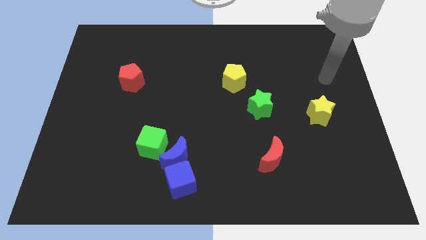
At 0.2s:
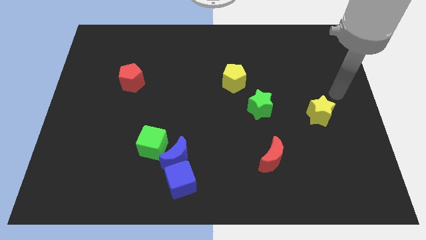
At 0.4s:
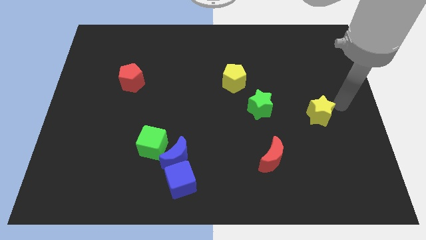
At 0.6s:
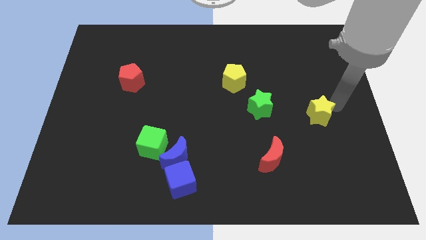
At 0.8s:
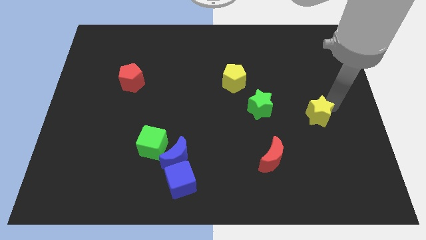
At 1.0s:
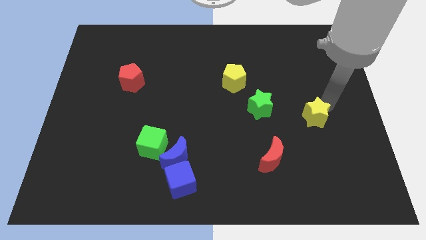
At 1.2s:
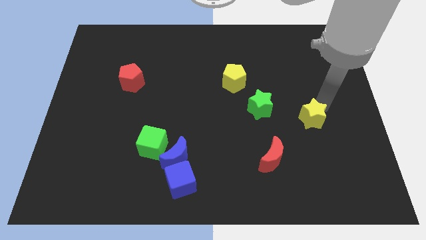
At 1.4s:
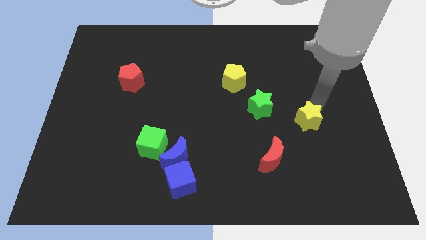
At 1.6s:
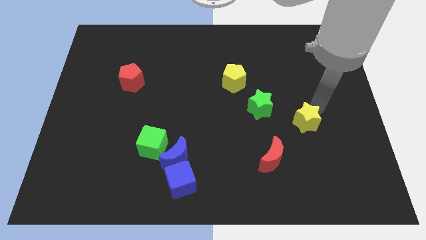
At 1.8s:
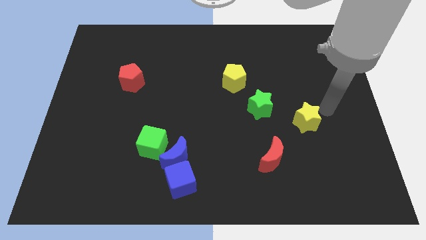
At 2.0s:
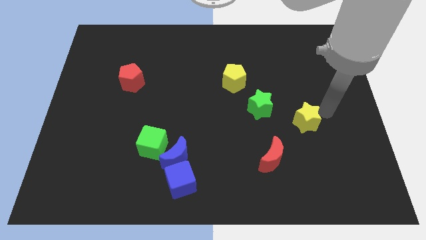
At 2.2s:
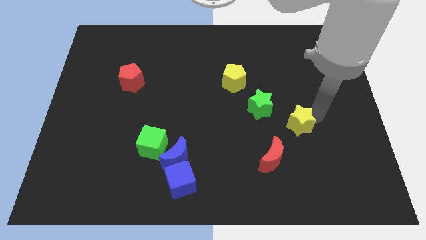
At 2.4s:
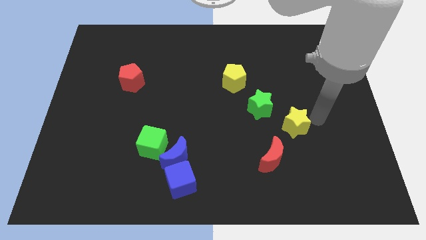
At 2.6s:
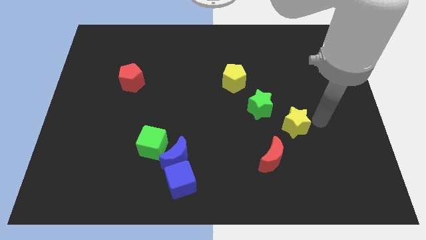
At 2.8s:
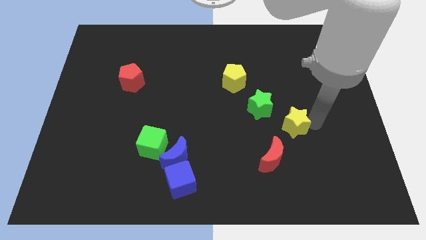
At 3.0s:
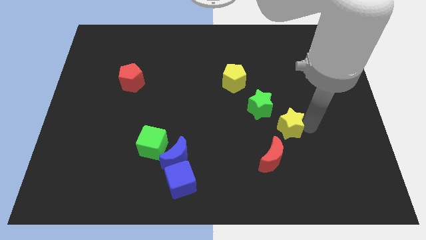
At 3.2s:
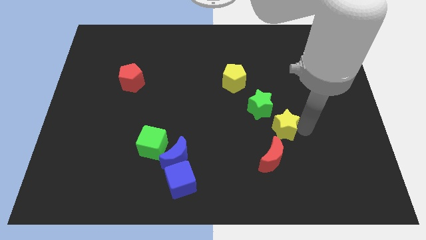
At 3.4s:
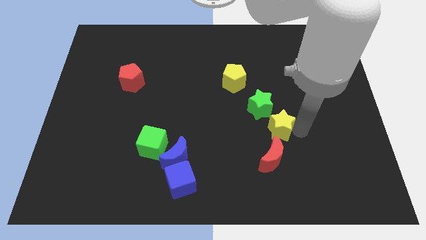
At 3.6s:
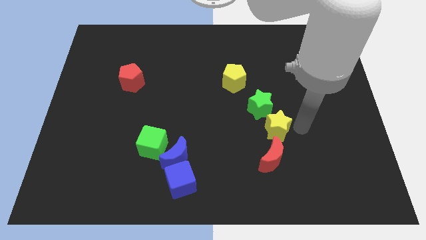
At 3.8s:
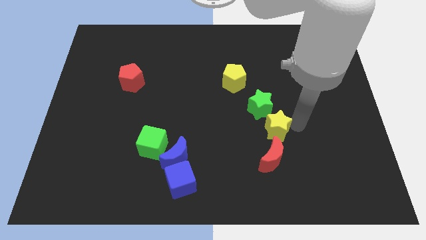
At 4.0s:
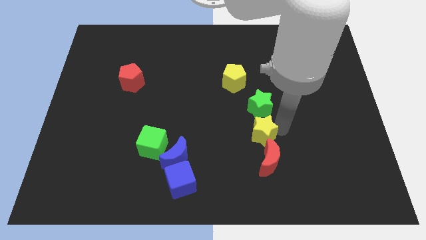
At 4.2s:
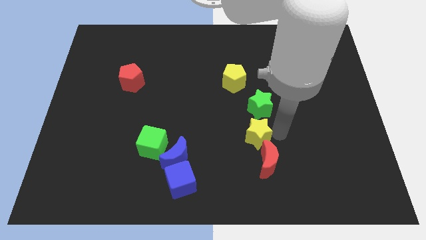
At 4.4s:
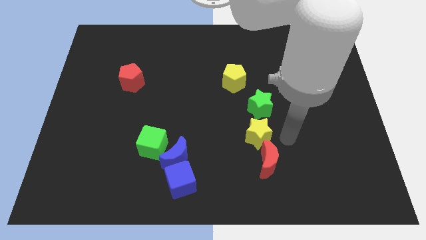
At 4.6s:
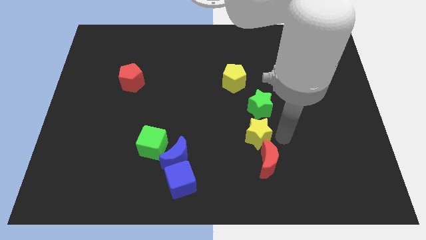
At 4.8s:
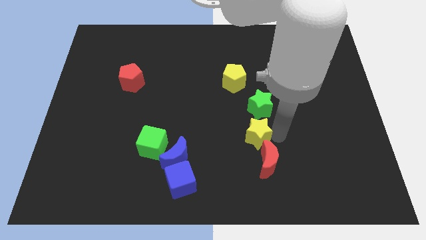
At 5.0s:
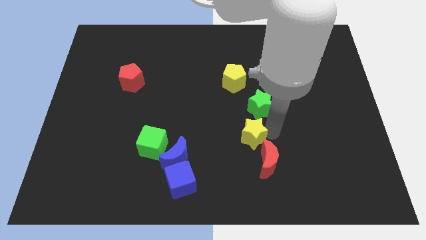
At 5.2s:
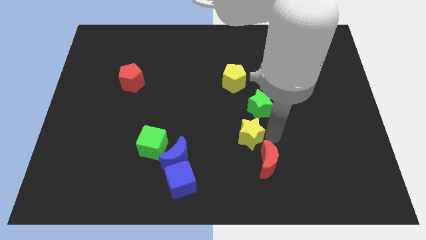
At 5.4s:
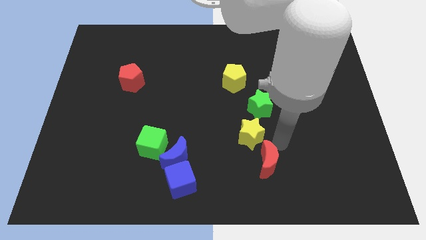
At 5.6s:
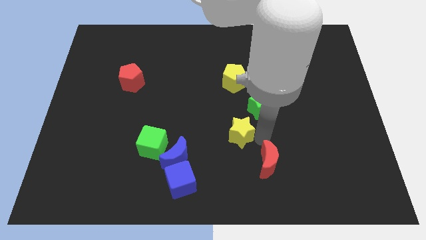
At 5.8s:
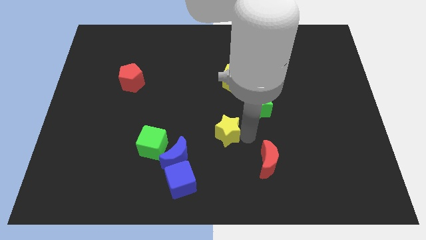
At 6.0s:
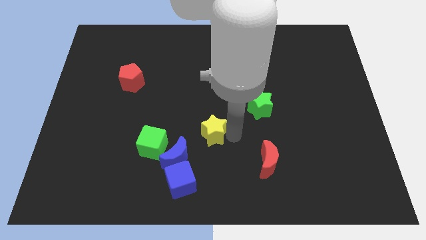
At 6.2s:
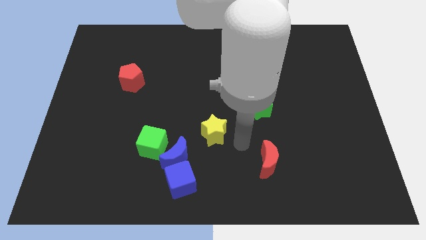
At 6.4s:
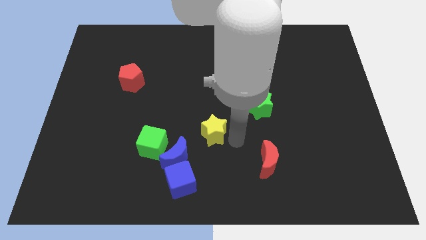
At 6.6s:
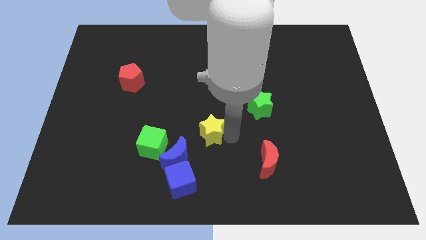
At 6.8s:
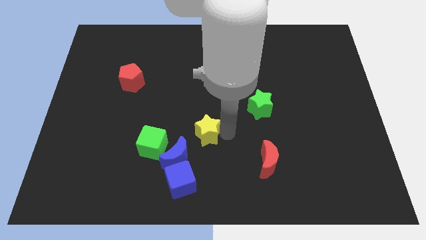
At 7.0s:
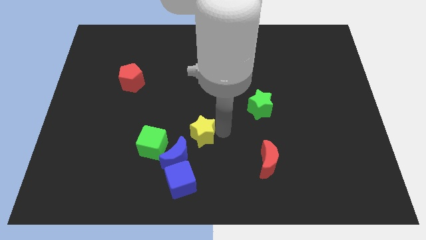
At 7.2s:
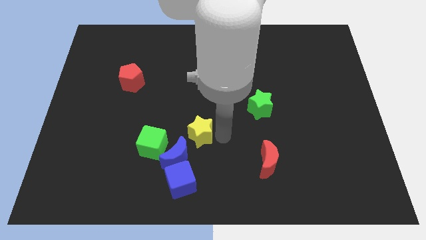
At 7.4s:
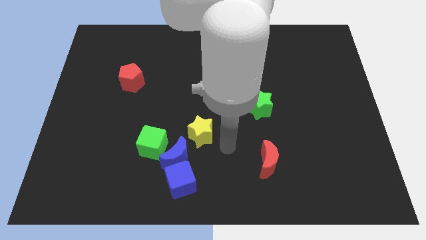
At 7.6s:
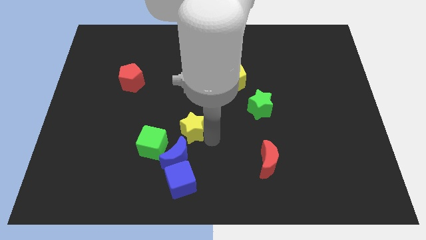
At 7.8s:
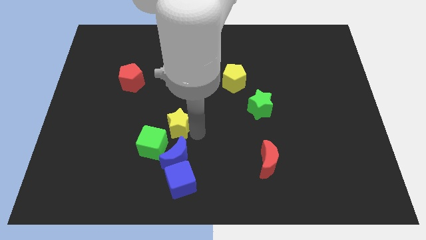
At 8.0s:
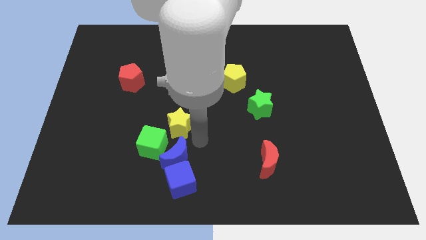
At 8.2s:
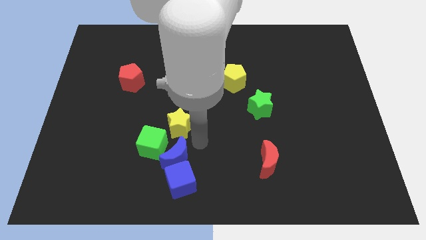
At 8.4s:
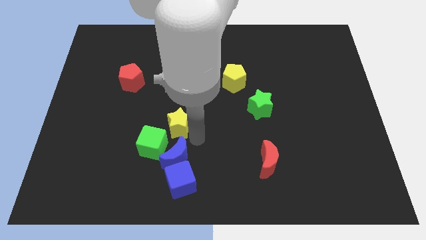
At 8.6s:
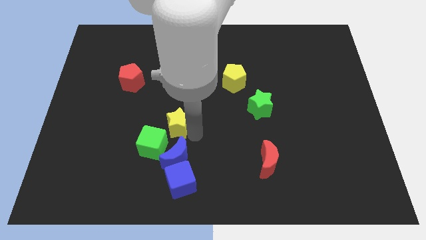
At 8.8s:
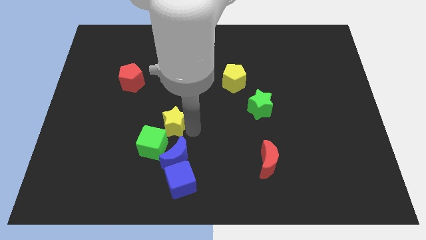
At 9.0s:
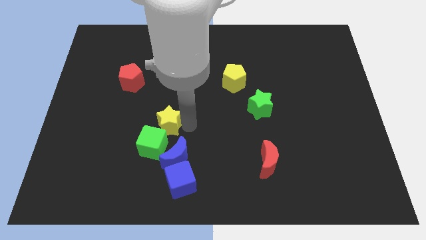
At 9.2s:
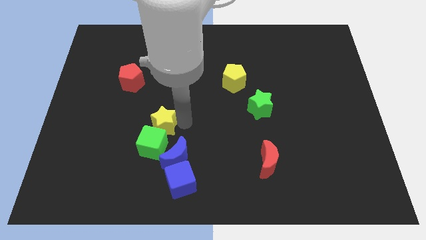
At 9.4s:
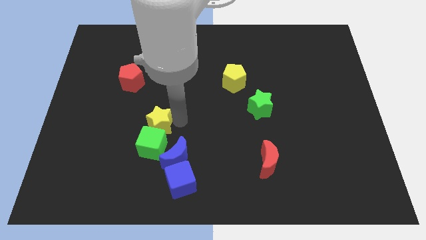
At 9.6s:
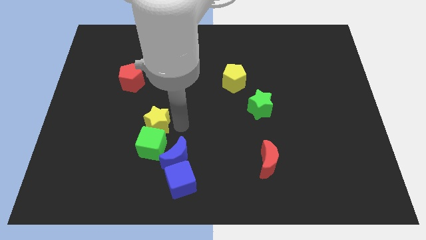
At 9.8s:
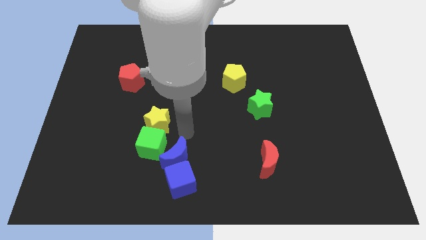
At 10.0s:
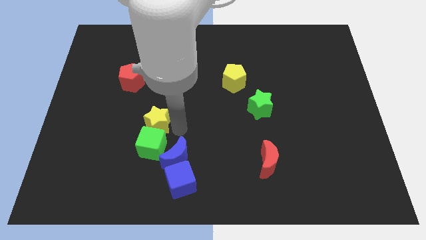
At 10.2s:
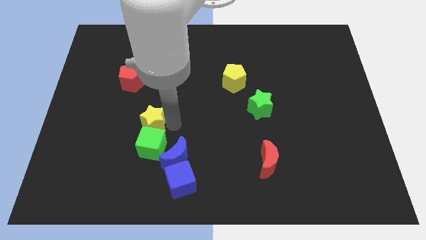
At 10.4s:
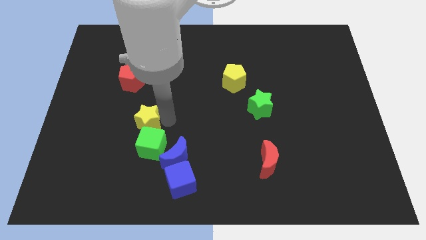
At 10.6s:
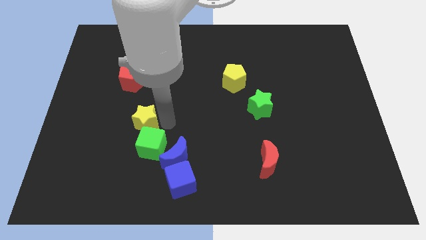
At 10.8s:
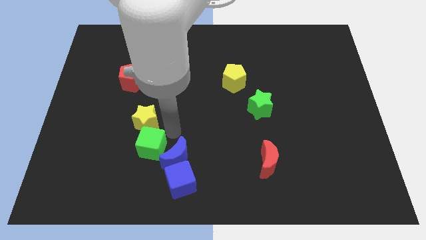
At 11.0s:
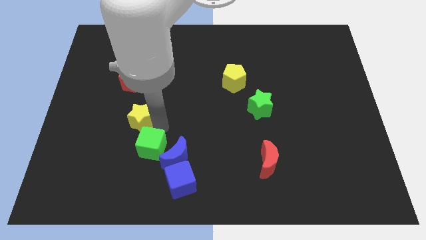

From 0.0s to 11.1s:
put the yellow star to the bottom side of the red pentagon

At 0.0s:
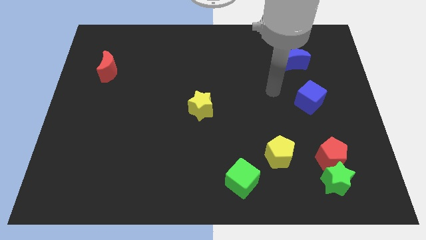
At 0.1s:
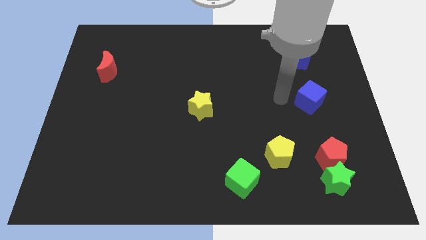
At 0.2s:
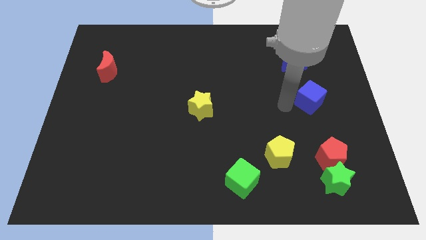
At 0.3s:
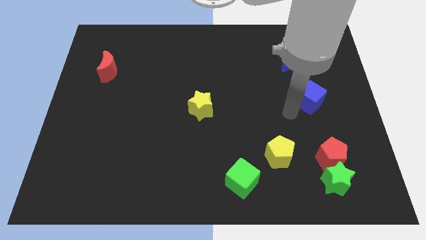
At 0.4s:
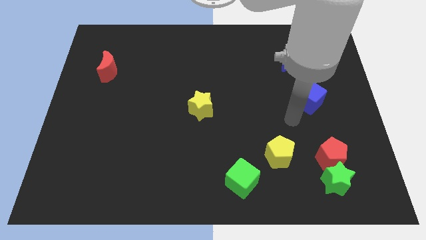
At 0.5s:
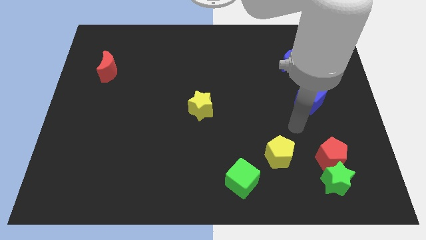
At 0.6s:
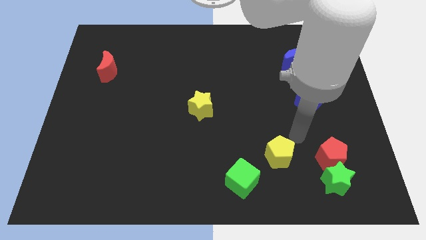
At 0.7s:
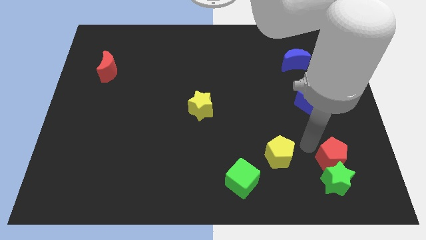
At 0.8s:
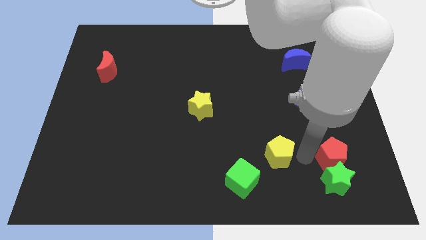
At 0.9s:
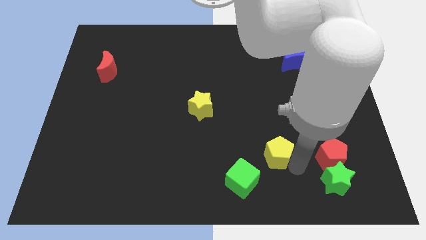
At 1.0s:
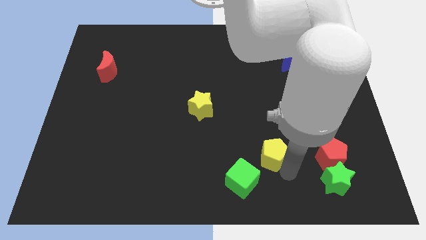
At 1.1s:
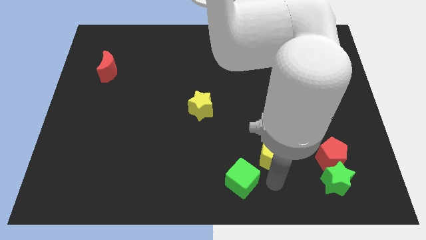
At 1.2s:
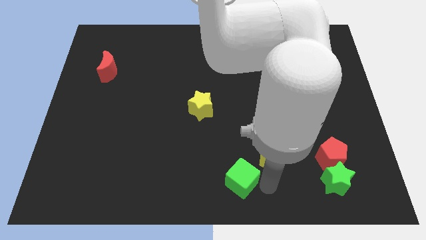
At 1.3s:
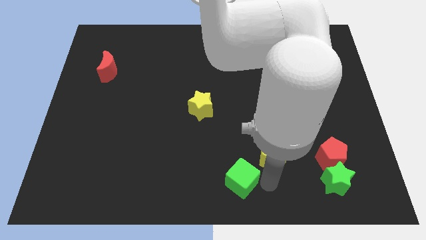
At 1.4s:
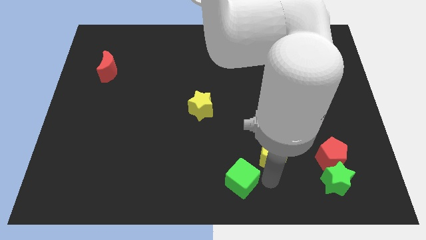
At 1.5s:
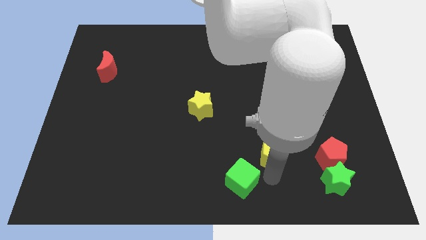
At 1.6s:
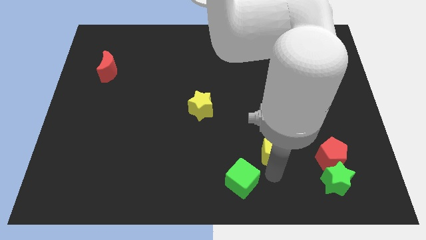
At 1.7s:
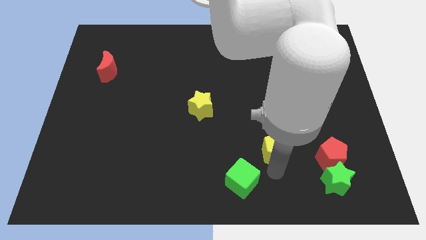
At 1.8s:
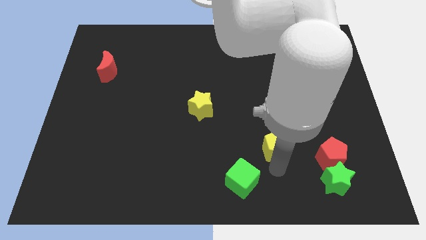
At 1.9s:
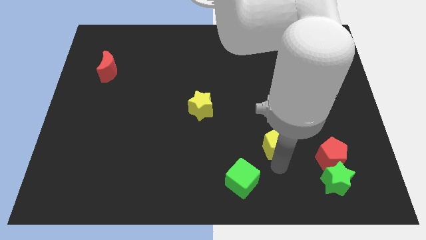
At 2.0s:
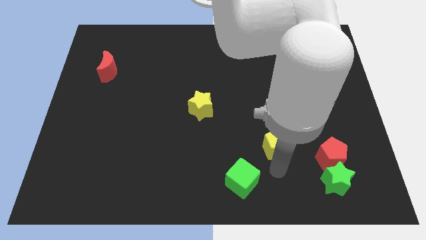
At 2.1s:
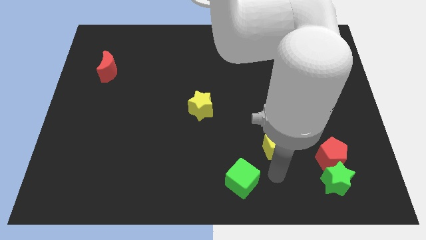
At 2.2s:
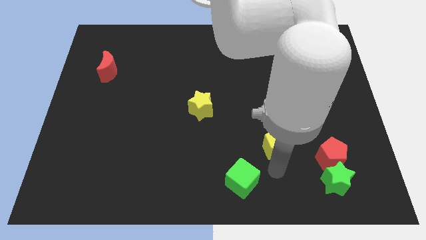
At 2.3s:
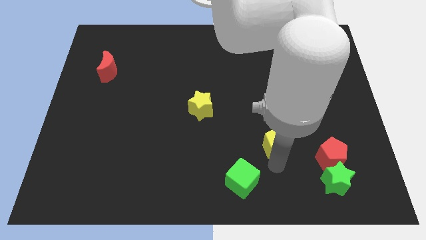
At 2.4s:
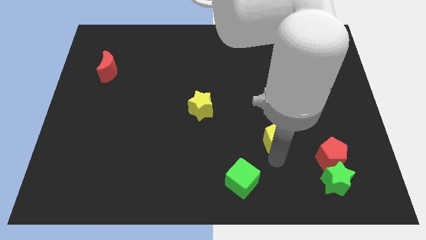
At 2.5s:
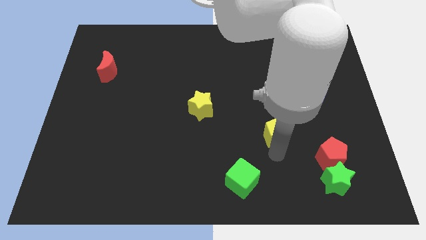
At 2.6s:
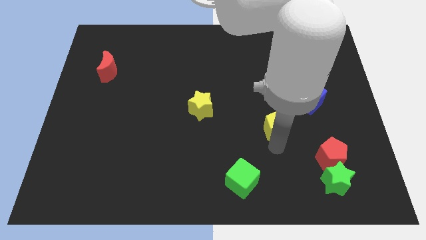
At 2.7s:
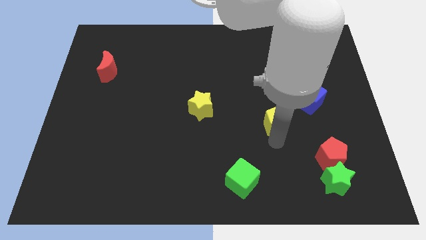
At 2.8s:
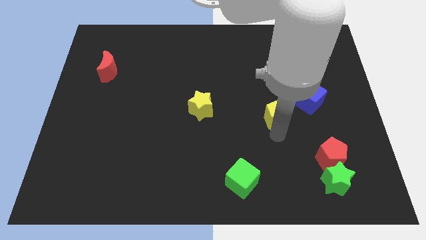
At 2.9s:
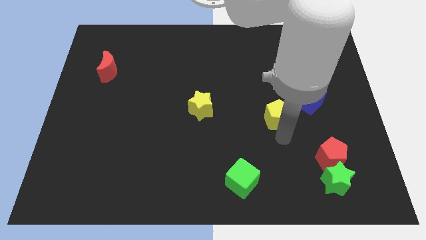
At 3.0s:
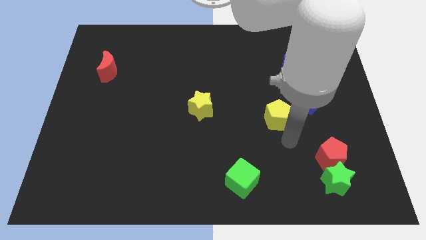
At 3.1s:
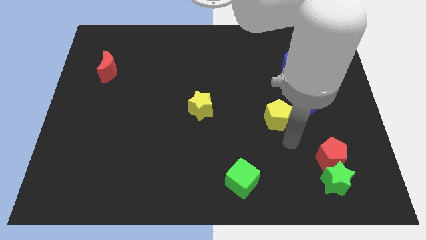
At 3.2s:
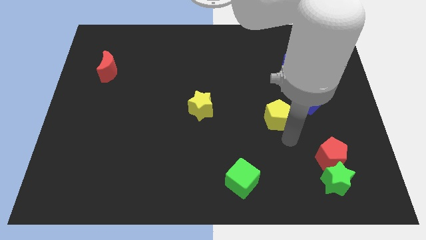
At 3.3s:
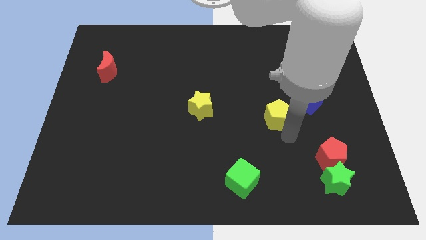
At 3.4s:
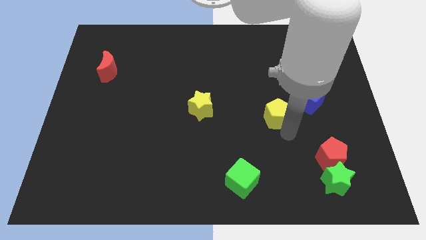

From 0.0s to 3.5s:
move the yellow pentagon to the left of the blue cube
